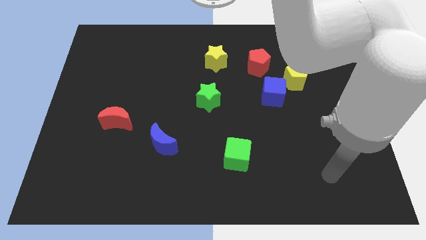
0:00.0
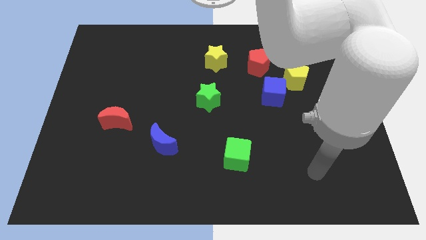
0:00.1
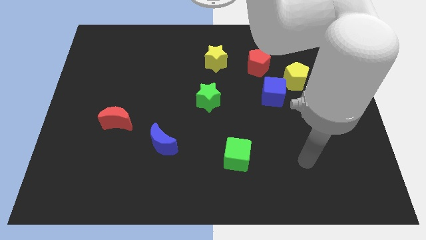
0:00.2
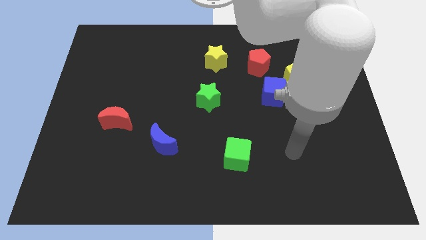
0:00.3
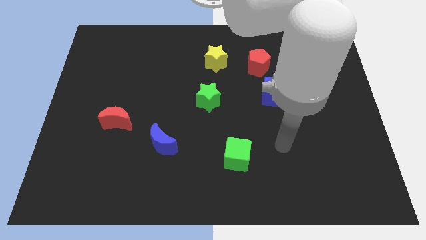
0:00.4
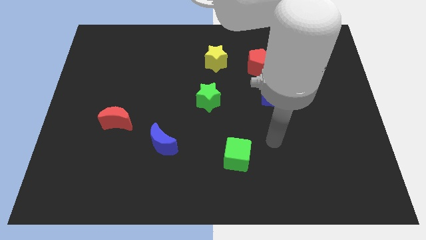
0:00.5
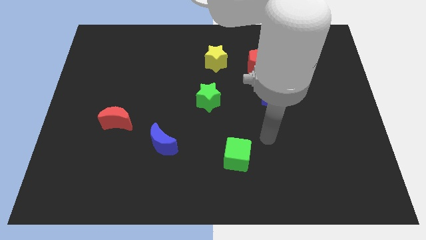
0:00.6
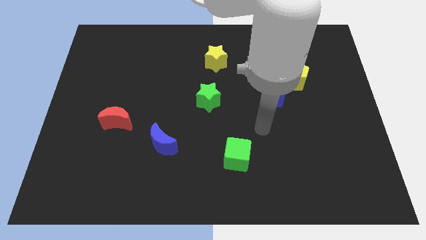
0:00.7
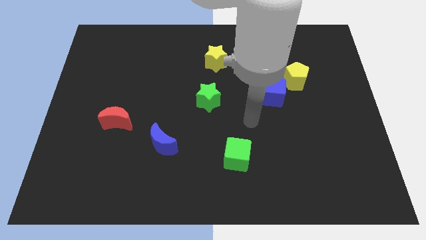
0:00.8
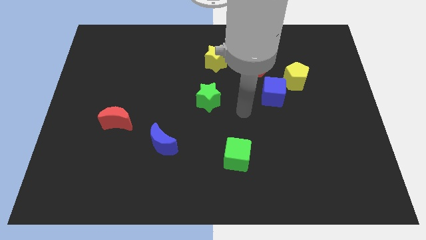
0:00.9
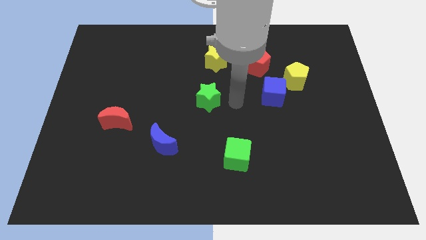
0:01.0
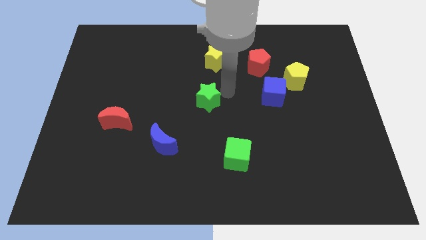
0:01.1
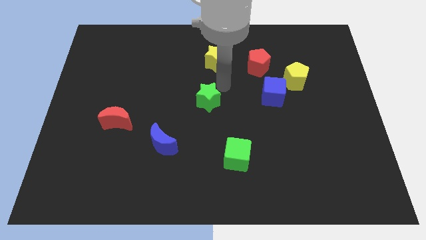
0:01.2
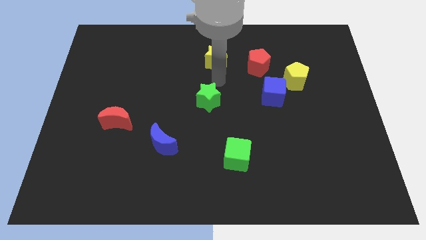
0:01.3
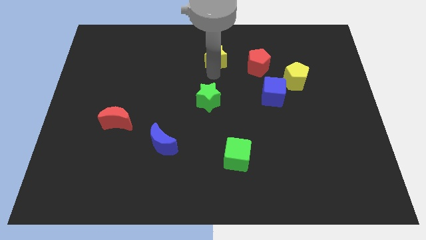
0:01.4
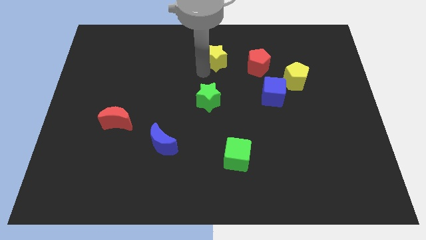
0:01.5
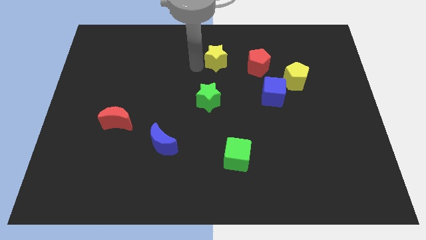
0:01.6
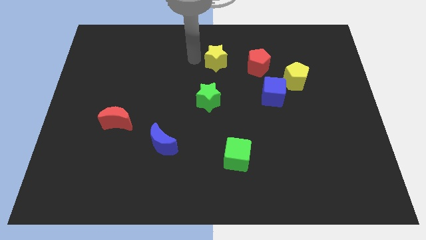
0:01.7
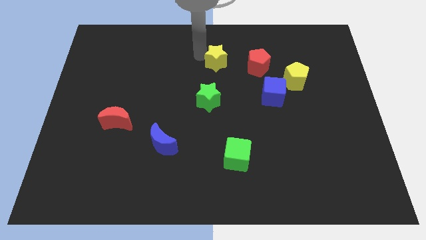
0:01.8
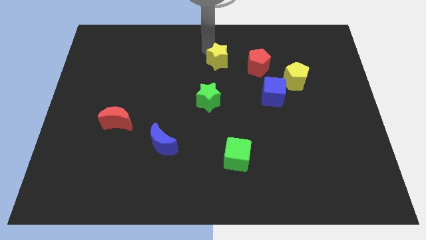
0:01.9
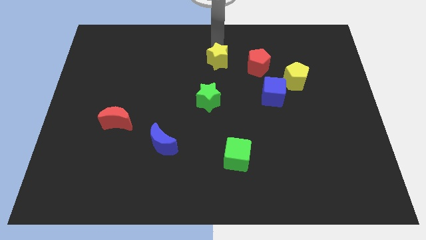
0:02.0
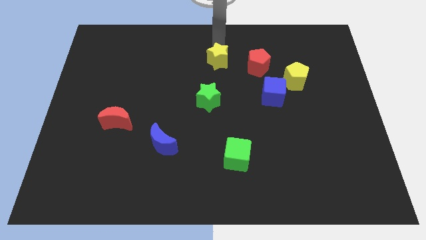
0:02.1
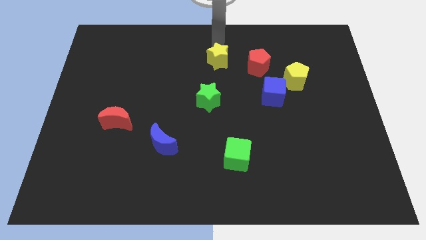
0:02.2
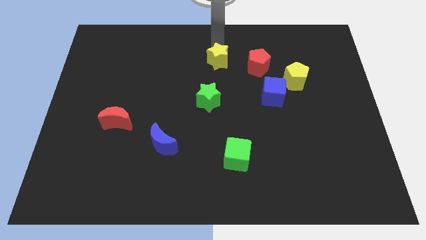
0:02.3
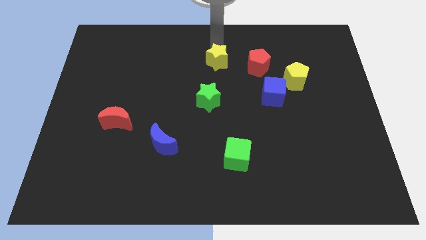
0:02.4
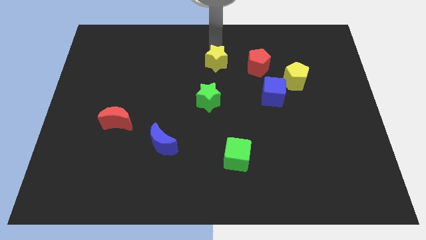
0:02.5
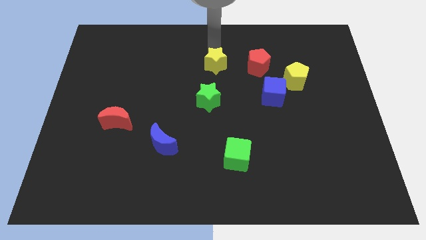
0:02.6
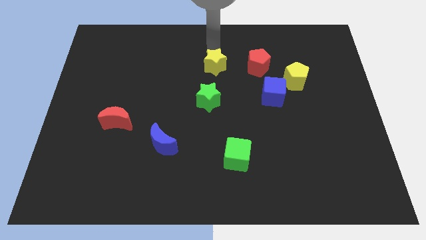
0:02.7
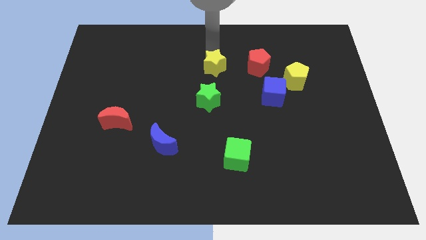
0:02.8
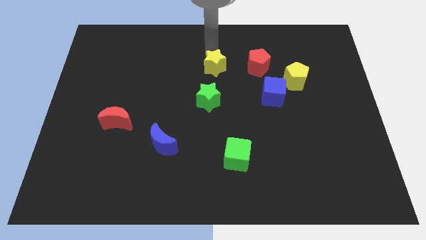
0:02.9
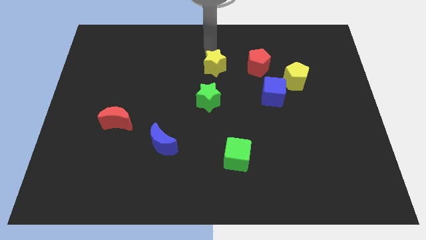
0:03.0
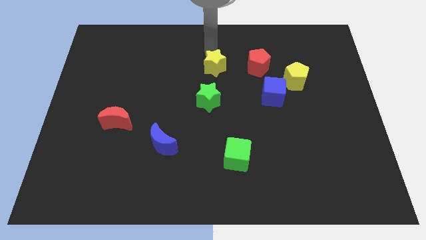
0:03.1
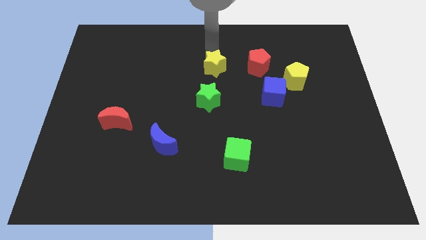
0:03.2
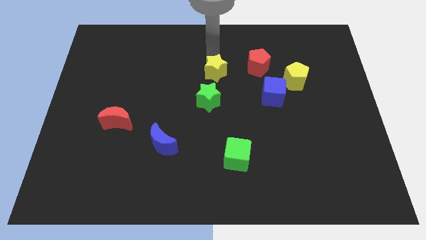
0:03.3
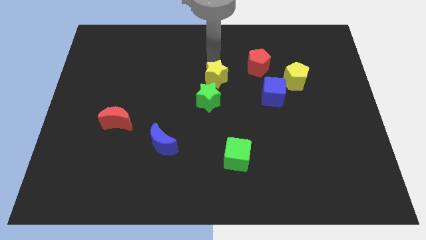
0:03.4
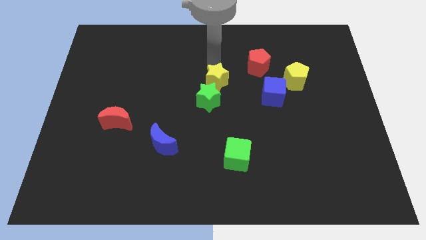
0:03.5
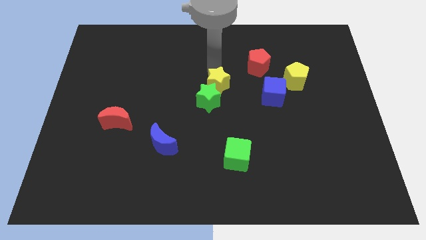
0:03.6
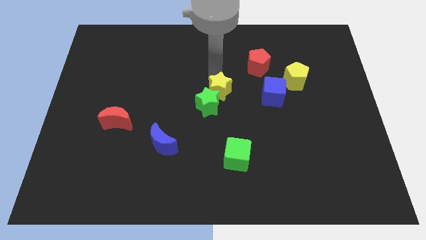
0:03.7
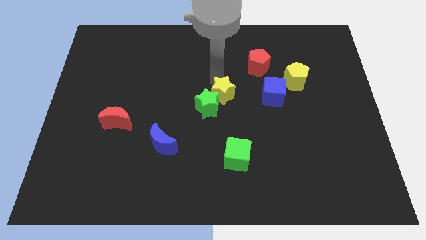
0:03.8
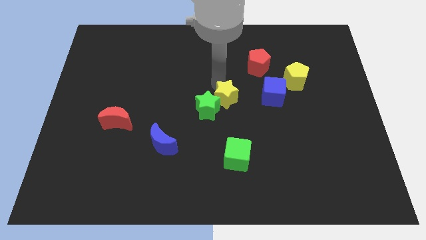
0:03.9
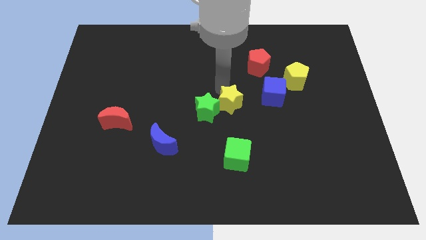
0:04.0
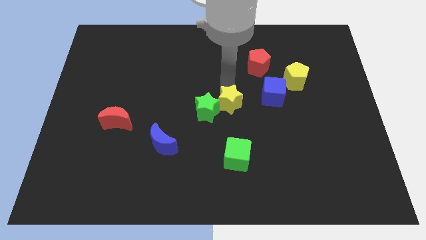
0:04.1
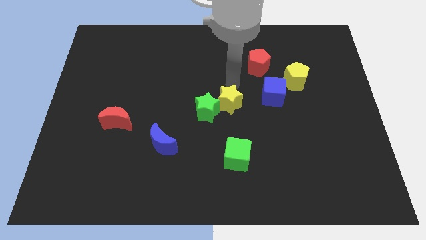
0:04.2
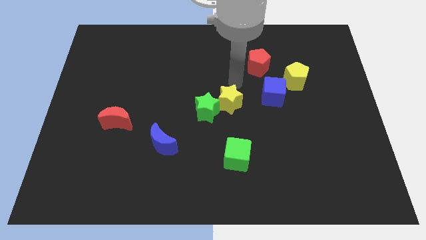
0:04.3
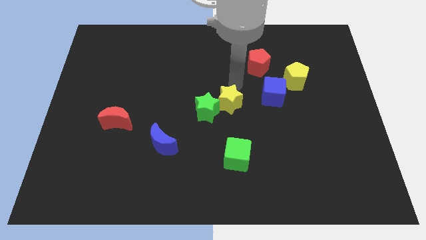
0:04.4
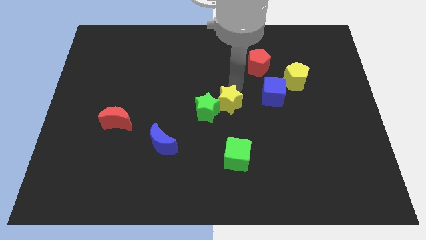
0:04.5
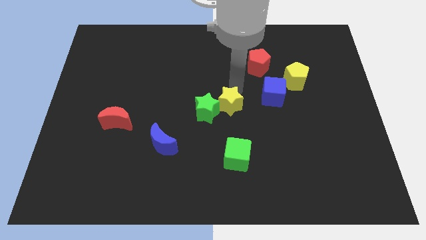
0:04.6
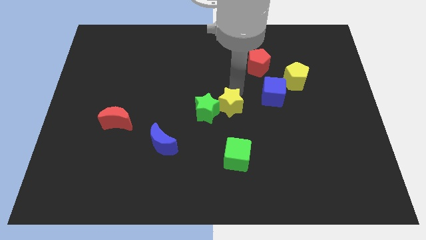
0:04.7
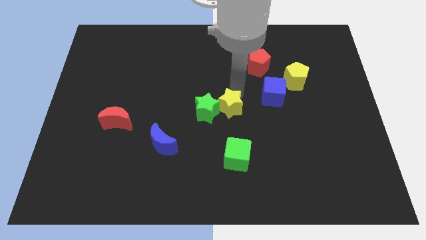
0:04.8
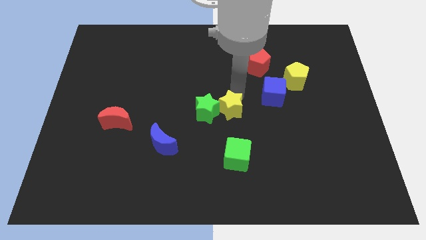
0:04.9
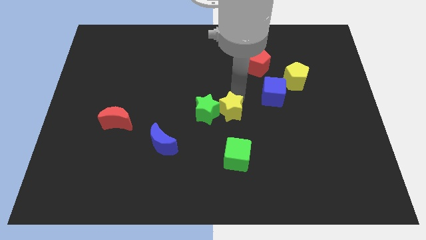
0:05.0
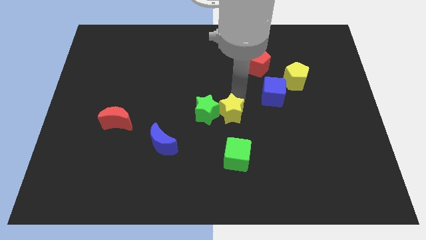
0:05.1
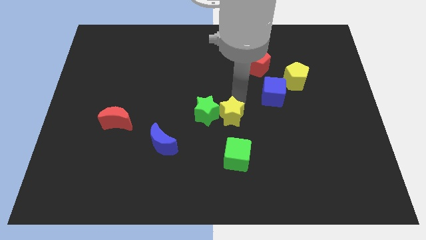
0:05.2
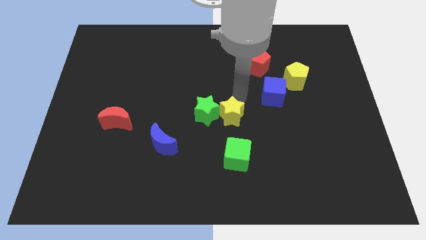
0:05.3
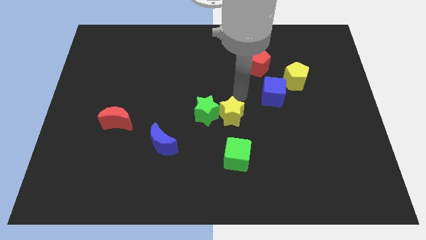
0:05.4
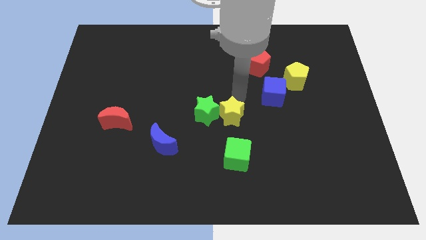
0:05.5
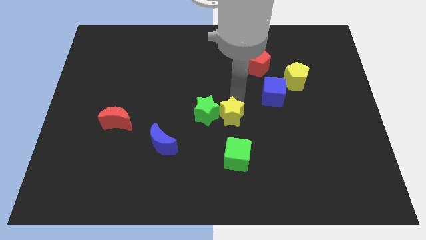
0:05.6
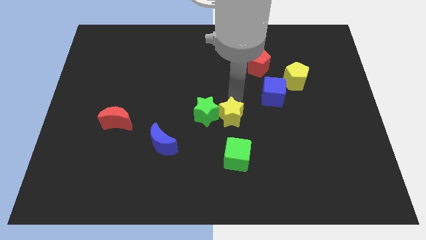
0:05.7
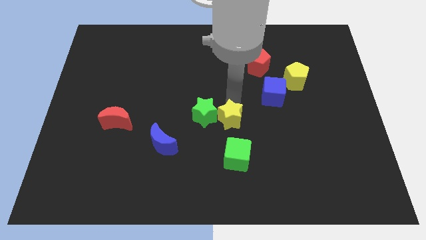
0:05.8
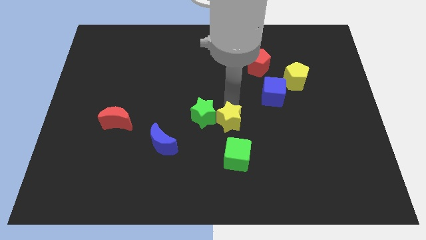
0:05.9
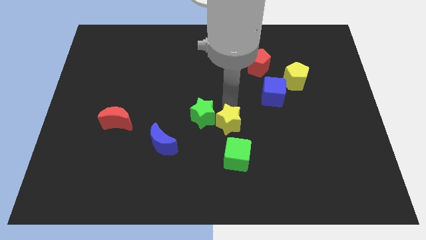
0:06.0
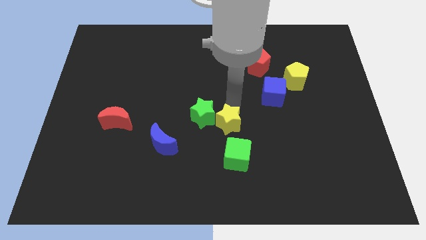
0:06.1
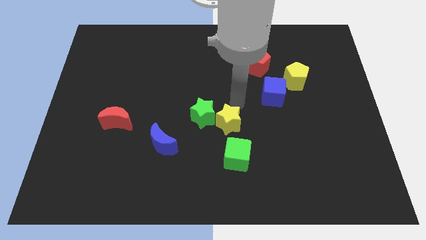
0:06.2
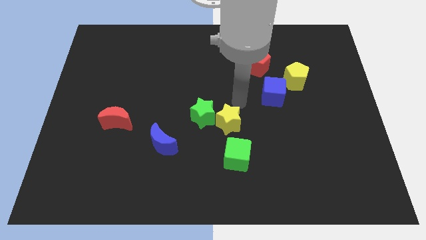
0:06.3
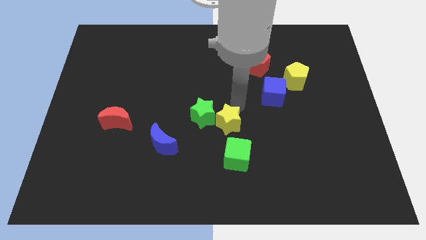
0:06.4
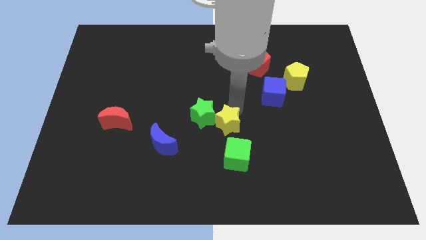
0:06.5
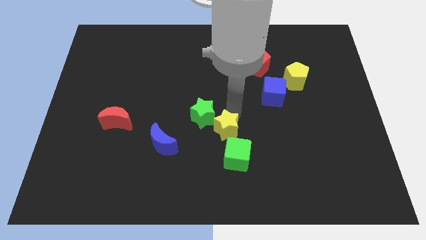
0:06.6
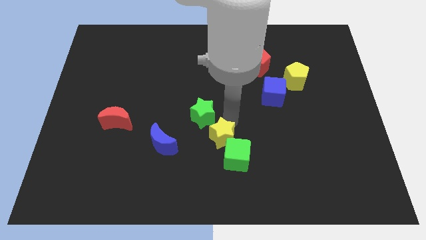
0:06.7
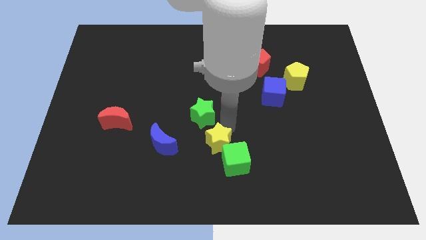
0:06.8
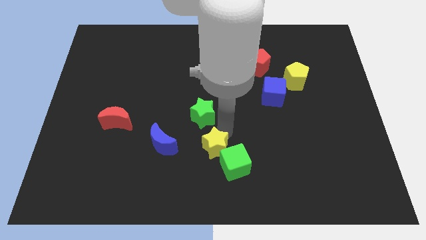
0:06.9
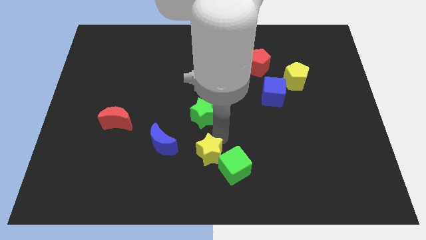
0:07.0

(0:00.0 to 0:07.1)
put the yellow star to the bottom
